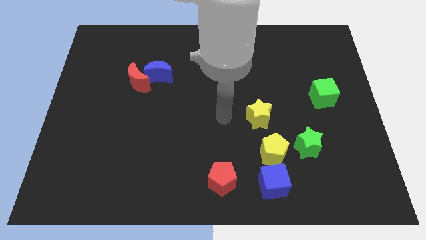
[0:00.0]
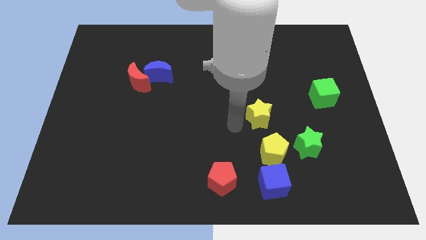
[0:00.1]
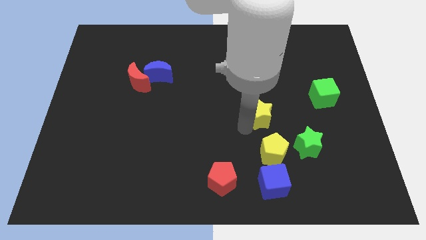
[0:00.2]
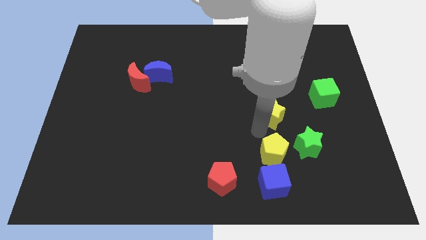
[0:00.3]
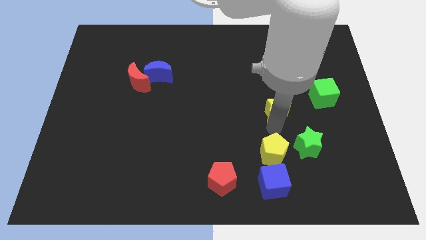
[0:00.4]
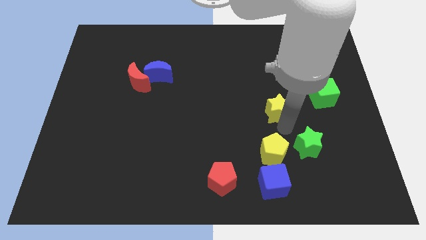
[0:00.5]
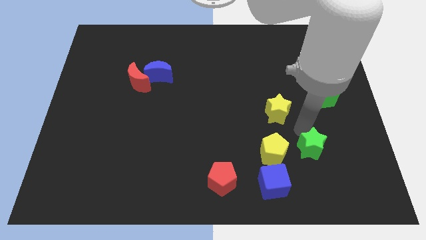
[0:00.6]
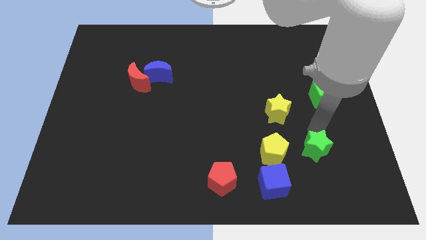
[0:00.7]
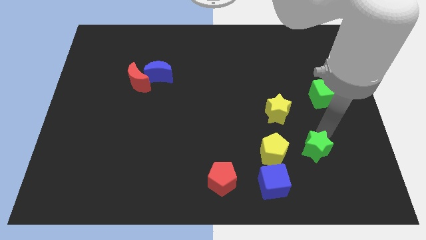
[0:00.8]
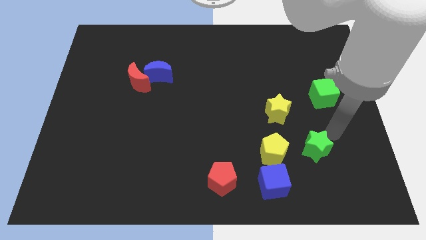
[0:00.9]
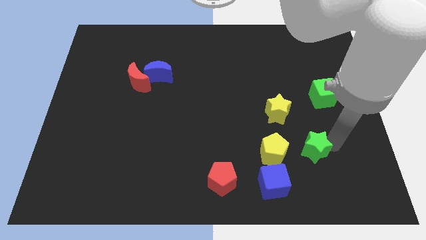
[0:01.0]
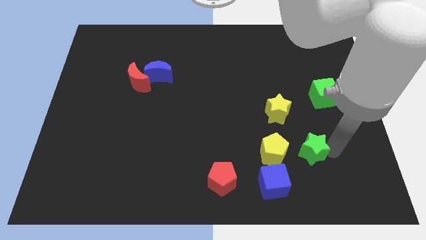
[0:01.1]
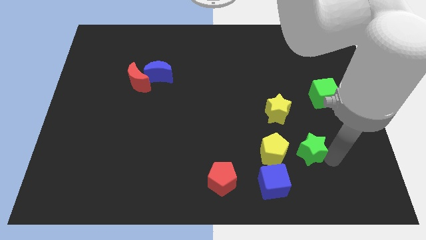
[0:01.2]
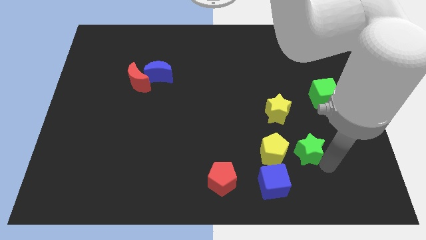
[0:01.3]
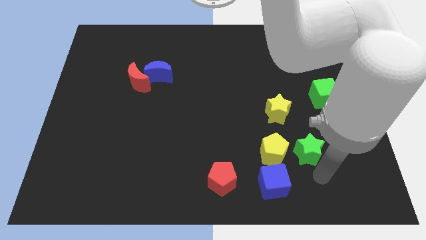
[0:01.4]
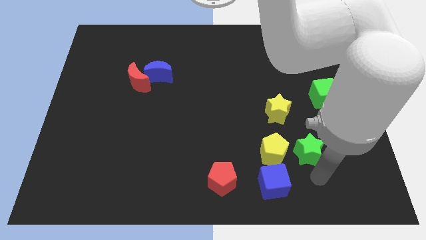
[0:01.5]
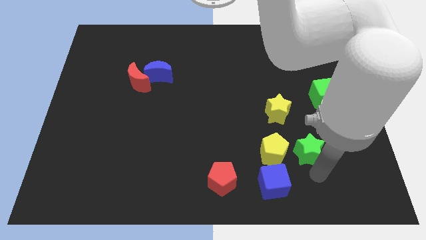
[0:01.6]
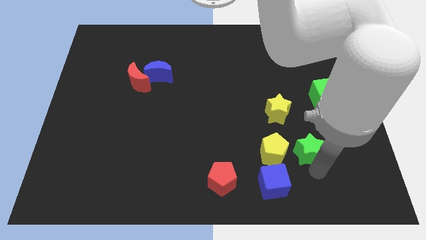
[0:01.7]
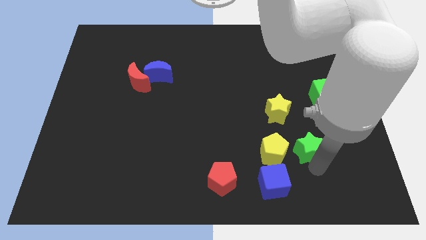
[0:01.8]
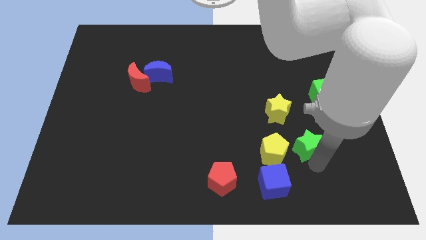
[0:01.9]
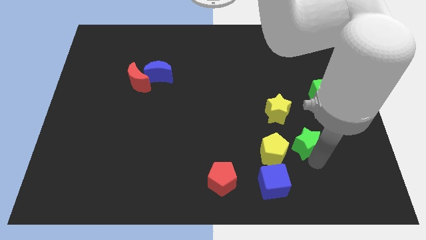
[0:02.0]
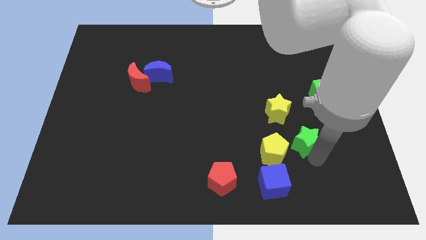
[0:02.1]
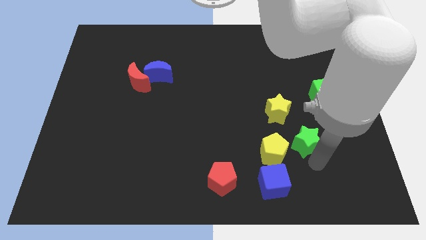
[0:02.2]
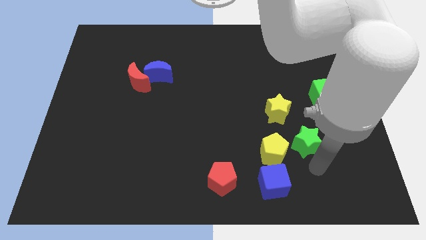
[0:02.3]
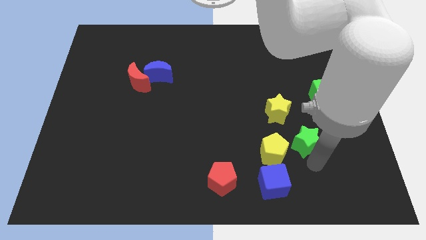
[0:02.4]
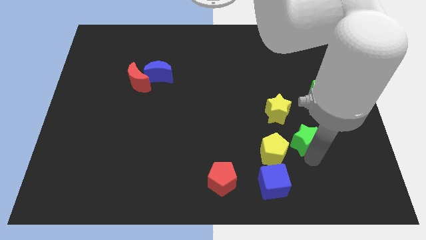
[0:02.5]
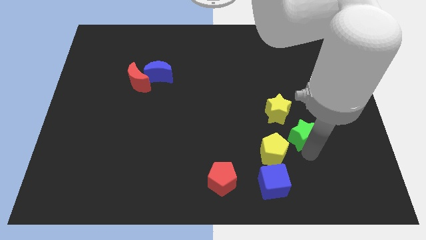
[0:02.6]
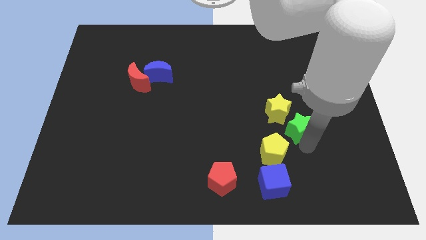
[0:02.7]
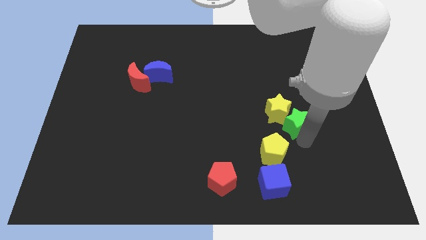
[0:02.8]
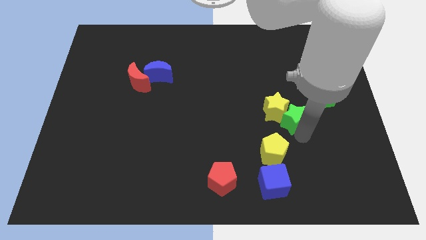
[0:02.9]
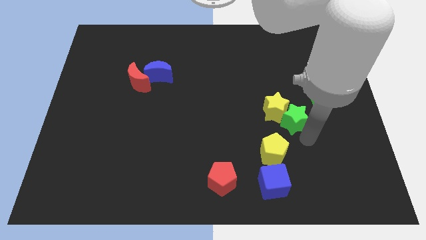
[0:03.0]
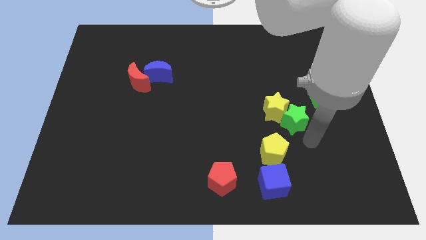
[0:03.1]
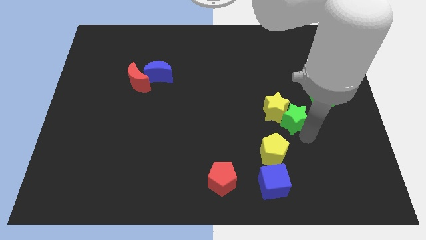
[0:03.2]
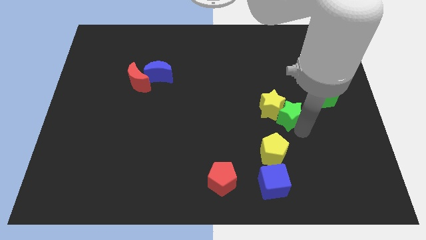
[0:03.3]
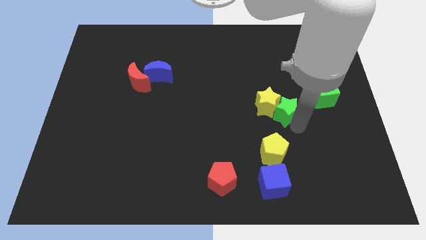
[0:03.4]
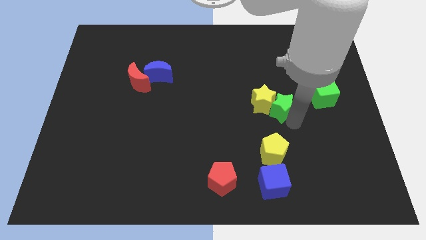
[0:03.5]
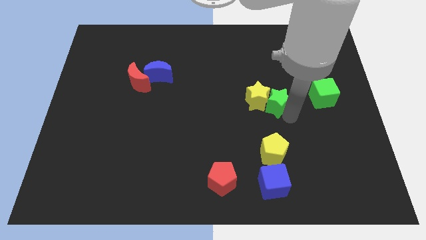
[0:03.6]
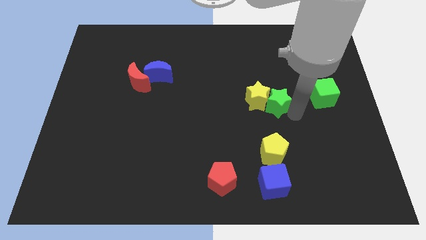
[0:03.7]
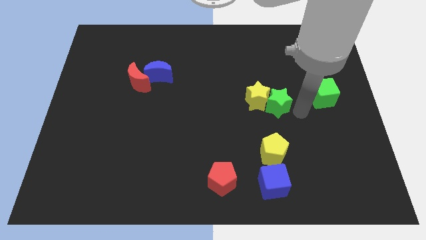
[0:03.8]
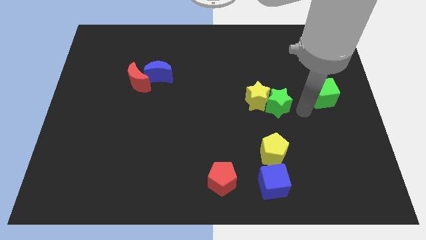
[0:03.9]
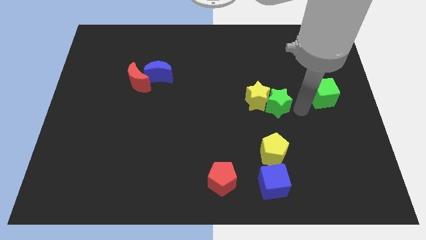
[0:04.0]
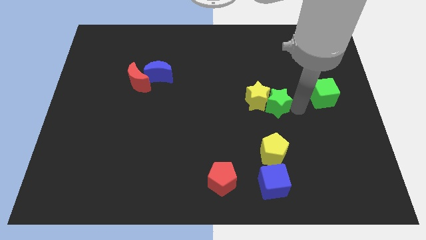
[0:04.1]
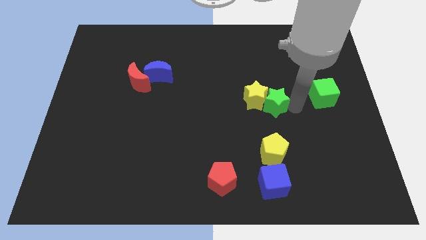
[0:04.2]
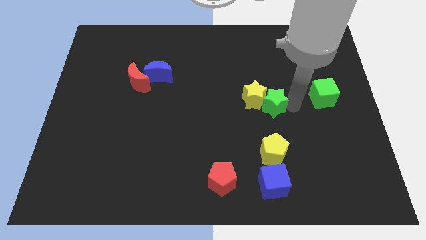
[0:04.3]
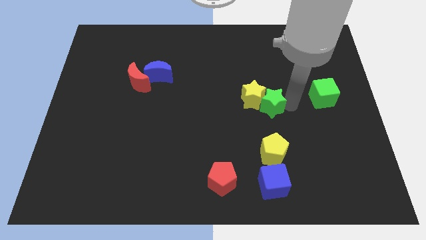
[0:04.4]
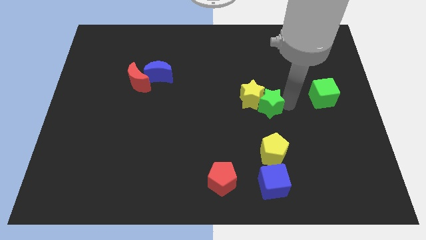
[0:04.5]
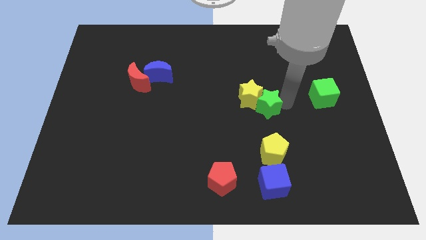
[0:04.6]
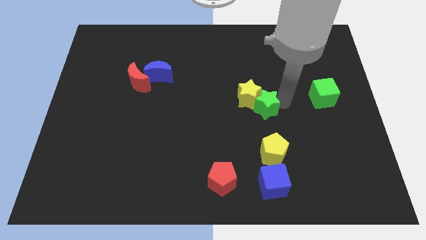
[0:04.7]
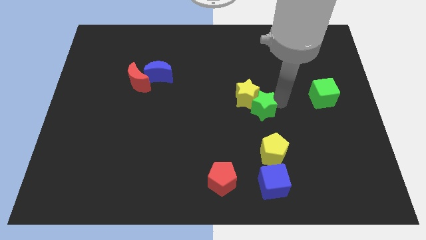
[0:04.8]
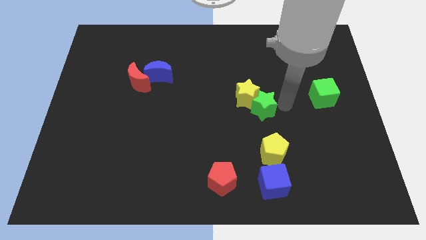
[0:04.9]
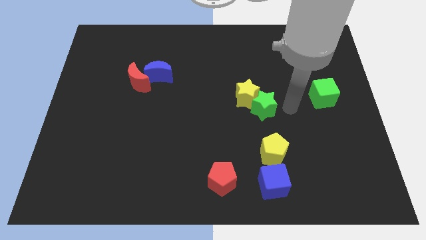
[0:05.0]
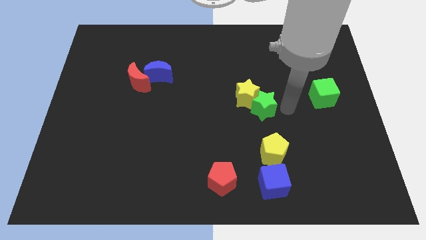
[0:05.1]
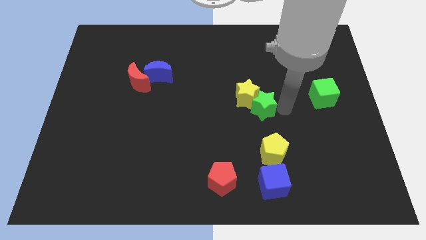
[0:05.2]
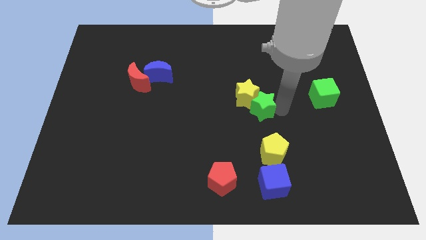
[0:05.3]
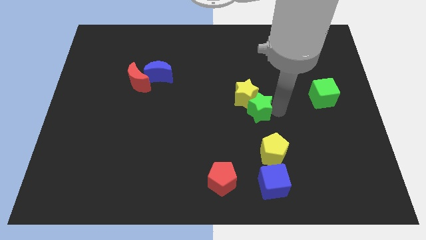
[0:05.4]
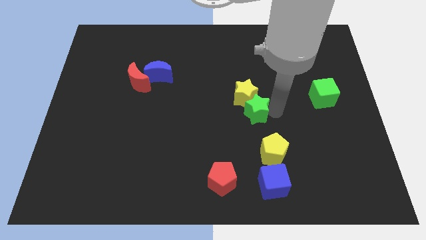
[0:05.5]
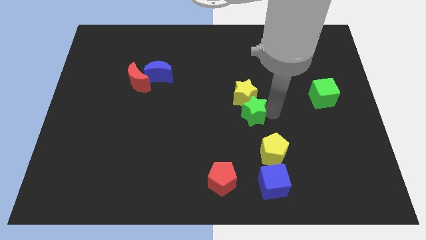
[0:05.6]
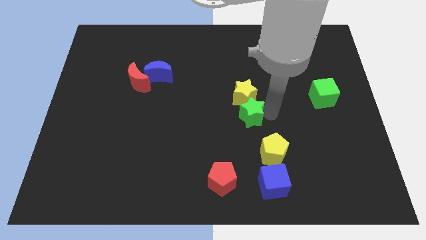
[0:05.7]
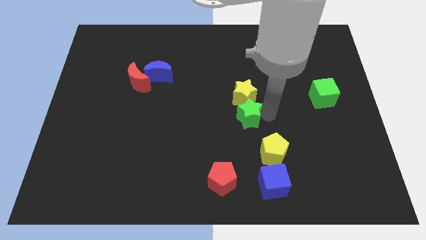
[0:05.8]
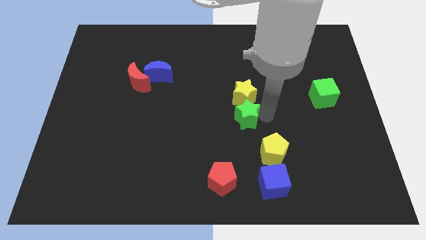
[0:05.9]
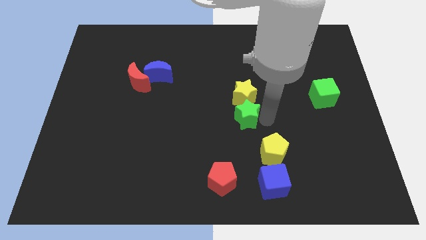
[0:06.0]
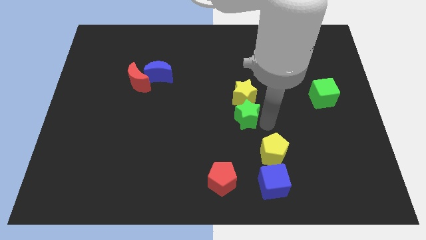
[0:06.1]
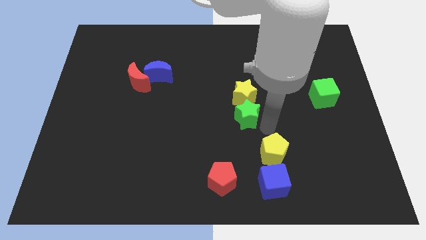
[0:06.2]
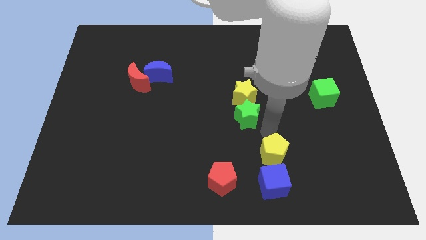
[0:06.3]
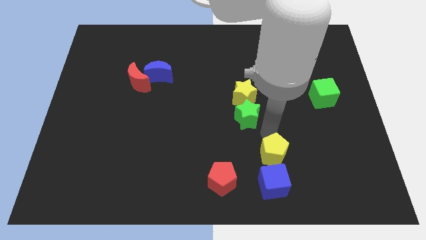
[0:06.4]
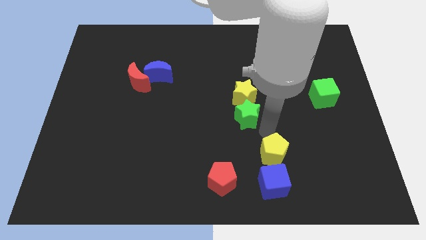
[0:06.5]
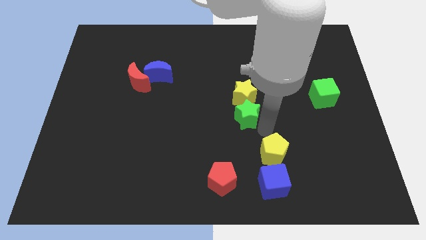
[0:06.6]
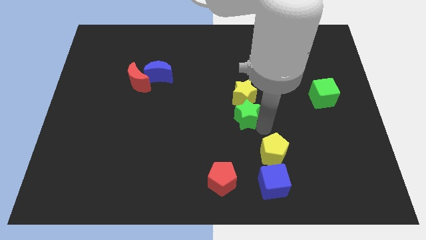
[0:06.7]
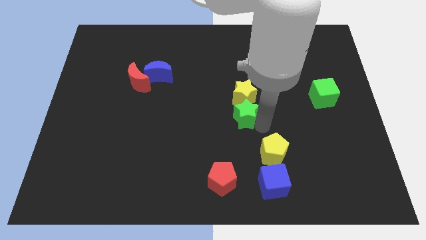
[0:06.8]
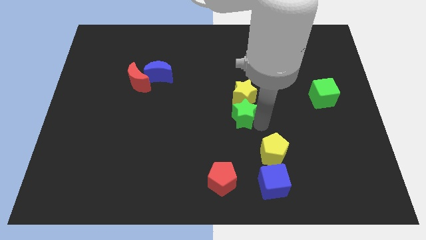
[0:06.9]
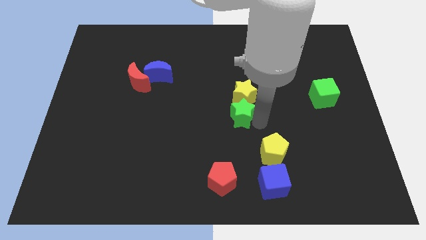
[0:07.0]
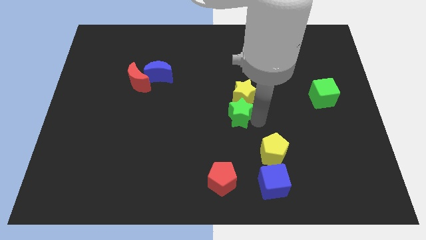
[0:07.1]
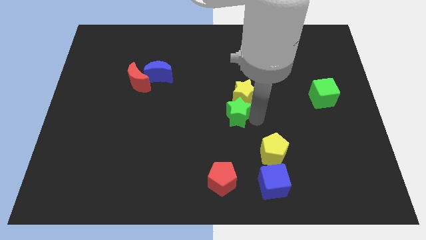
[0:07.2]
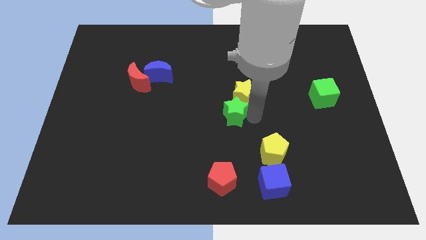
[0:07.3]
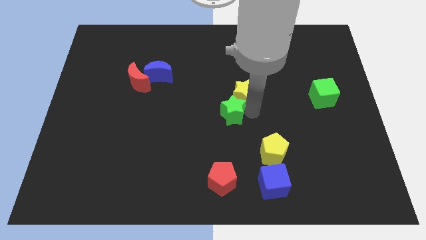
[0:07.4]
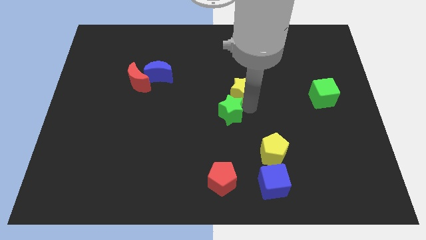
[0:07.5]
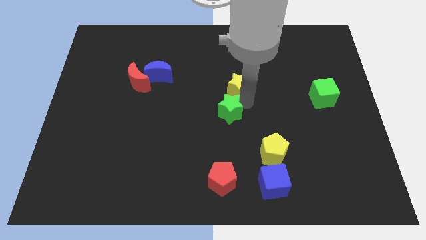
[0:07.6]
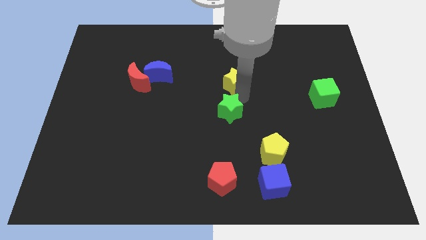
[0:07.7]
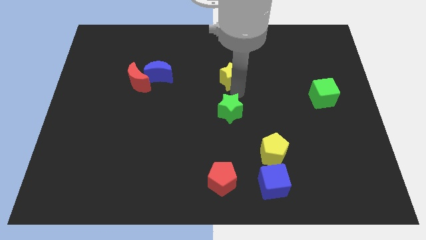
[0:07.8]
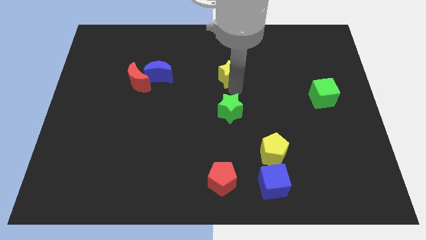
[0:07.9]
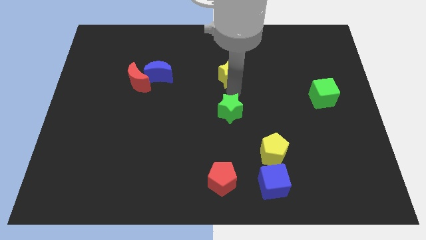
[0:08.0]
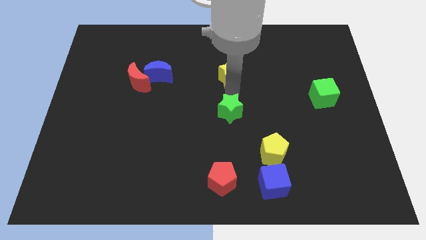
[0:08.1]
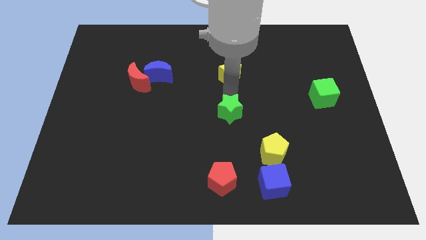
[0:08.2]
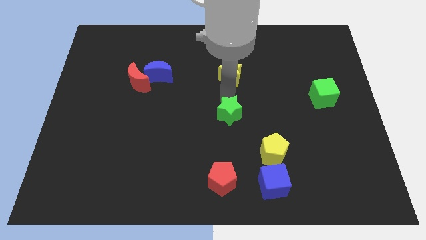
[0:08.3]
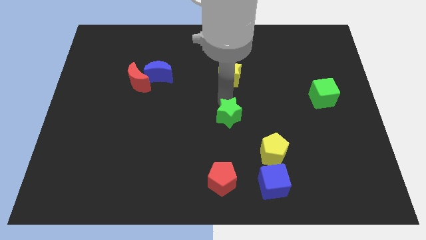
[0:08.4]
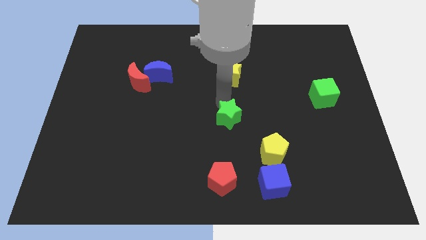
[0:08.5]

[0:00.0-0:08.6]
put the green star to the top side of the red pentagon
